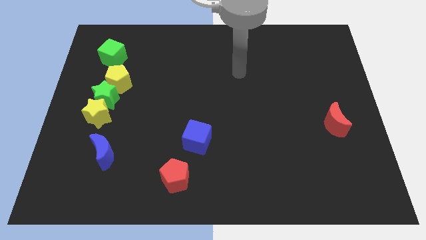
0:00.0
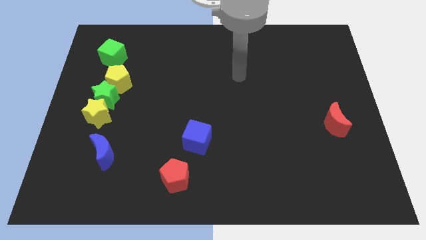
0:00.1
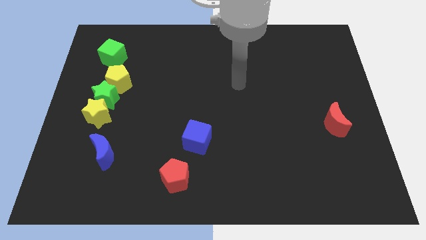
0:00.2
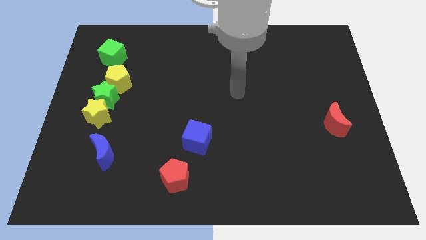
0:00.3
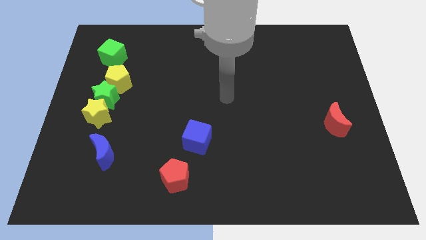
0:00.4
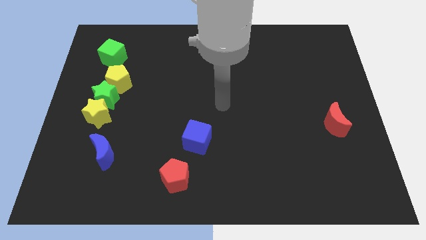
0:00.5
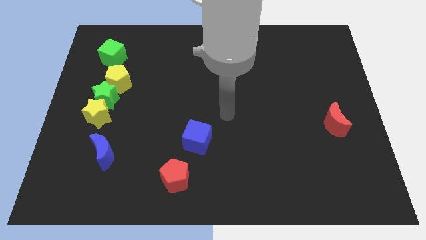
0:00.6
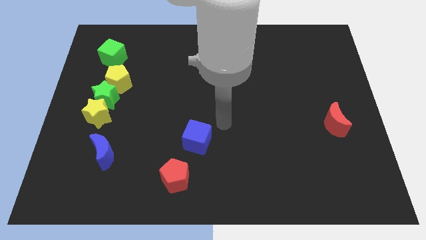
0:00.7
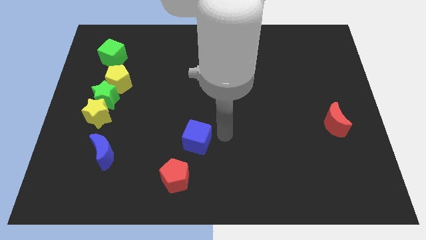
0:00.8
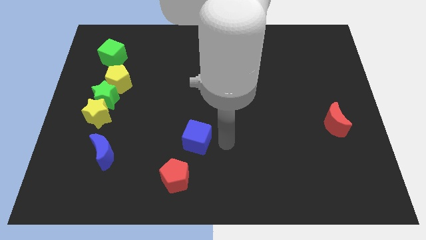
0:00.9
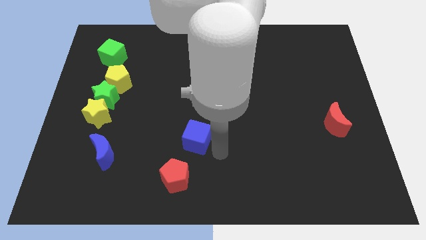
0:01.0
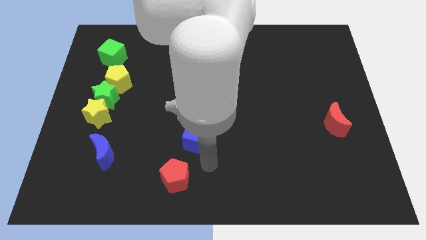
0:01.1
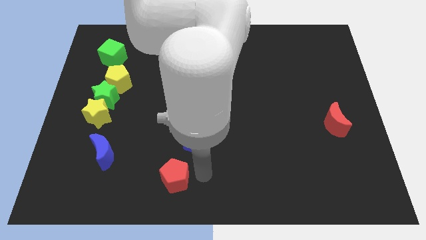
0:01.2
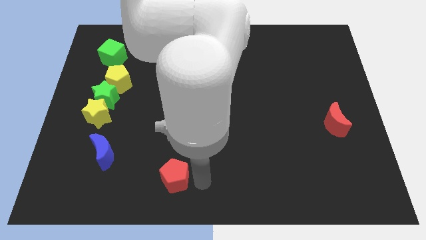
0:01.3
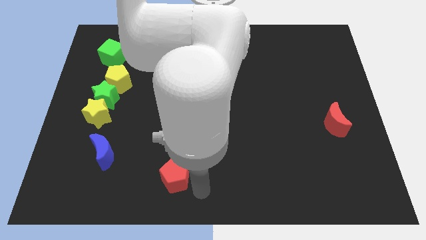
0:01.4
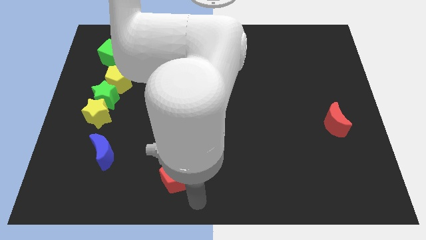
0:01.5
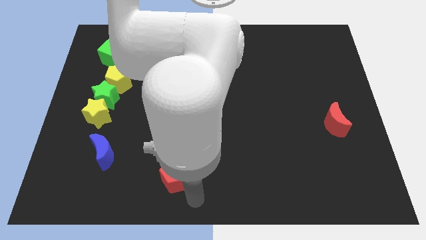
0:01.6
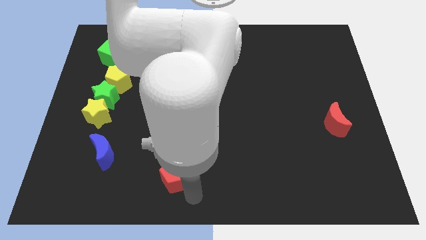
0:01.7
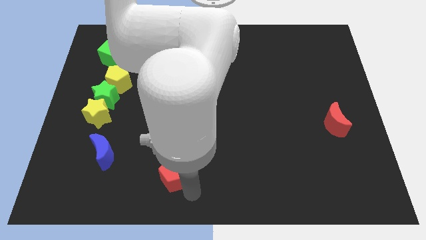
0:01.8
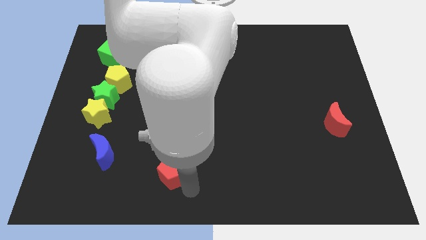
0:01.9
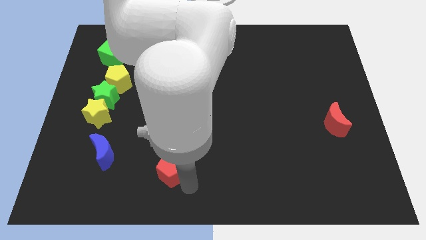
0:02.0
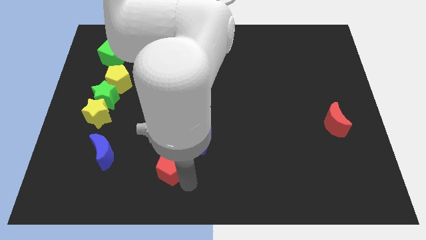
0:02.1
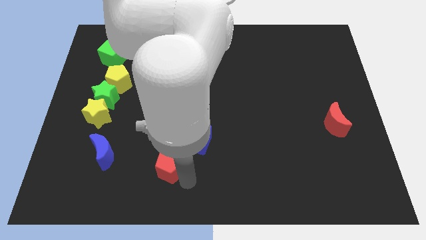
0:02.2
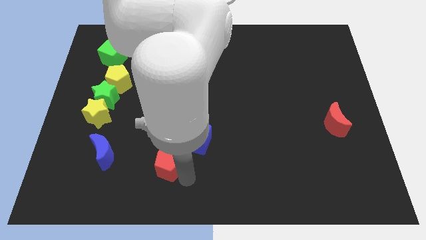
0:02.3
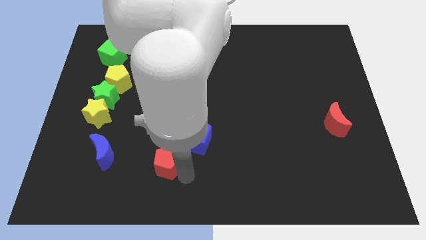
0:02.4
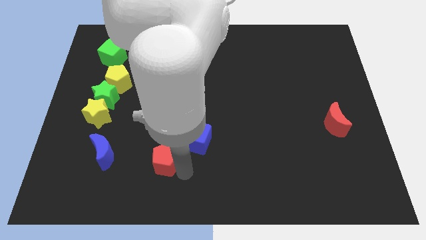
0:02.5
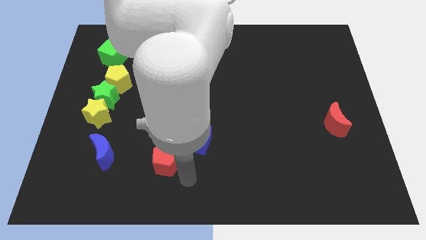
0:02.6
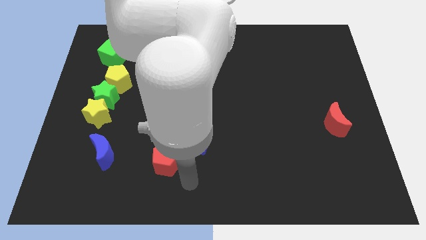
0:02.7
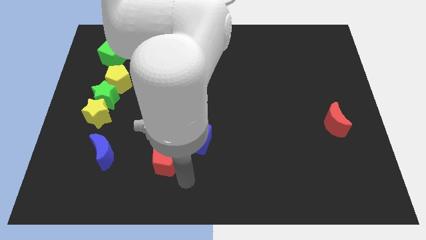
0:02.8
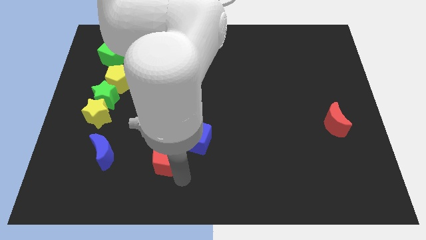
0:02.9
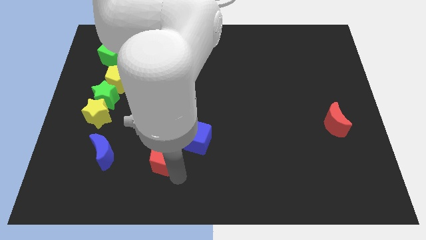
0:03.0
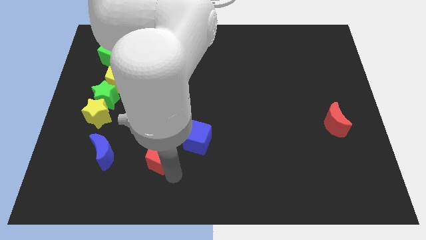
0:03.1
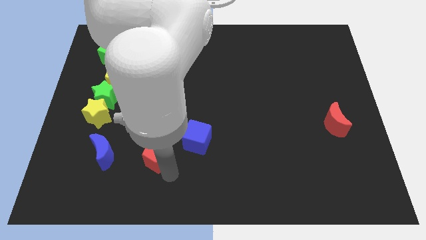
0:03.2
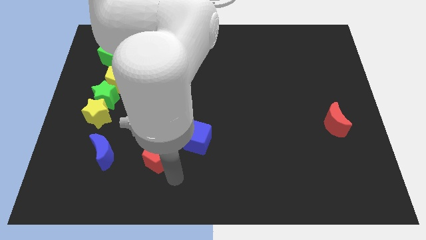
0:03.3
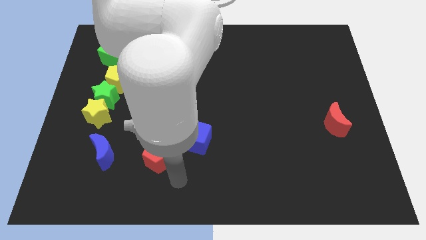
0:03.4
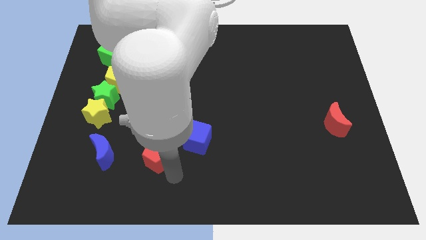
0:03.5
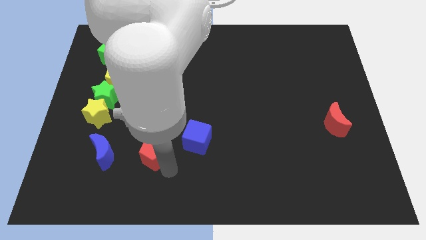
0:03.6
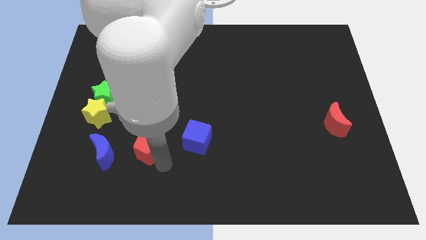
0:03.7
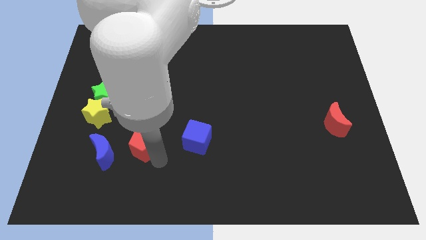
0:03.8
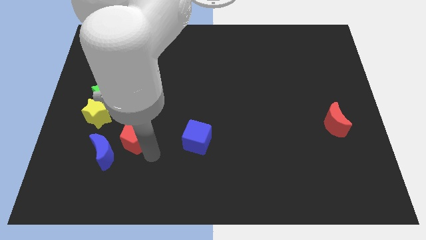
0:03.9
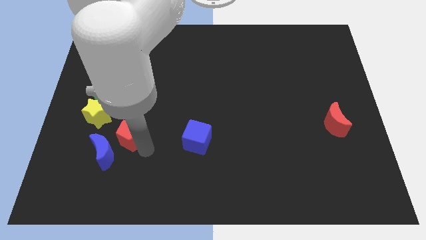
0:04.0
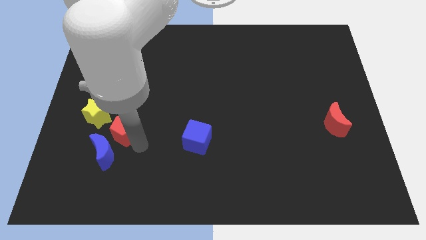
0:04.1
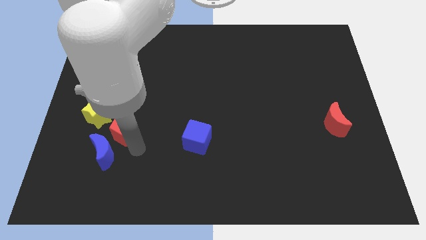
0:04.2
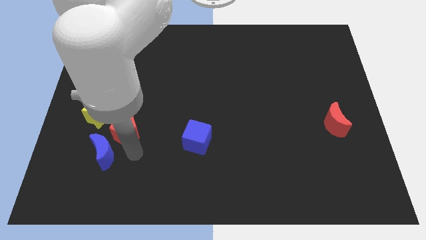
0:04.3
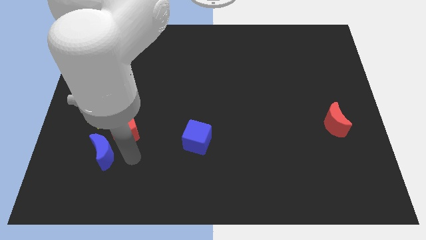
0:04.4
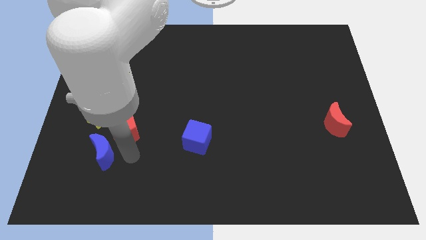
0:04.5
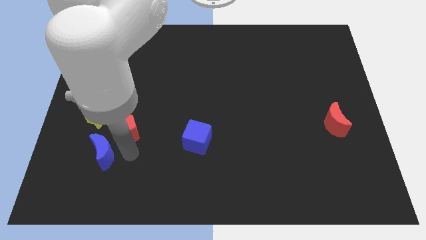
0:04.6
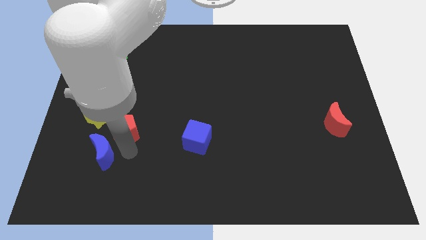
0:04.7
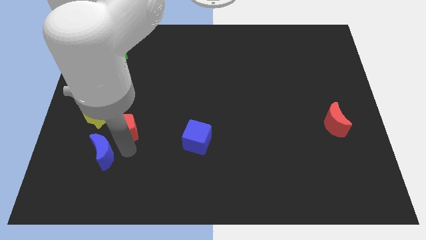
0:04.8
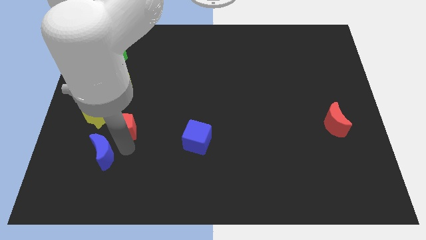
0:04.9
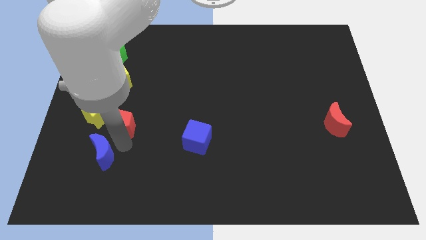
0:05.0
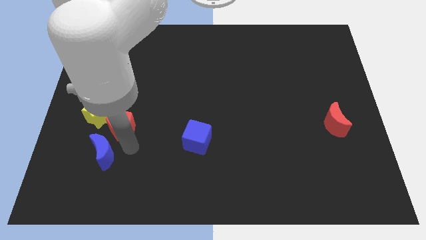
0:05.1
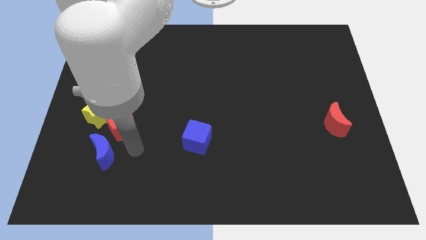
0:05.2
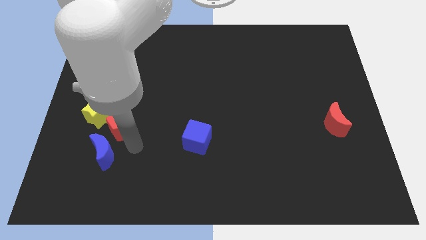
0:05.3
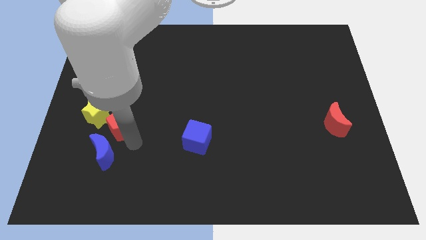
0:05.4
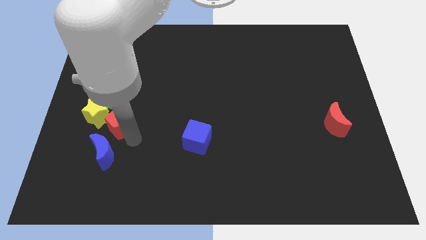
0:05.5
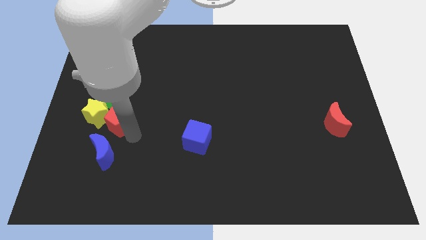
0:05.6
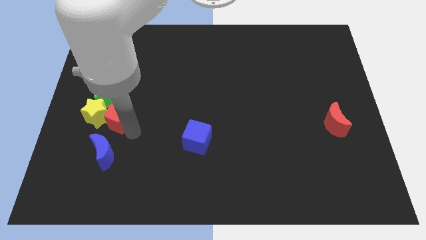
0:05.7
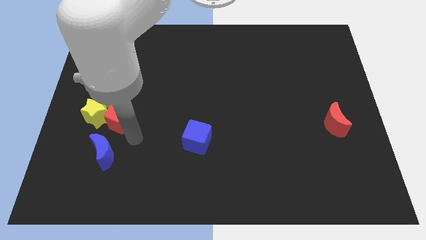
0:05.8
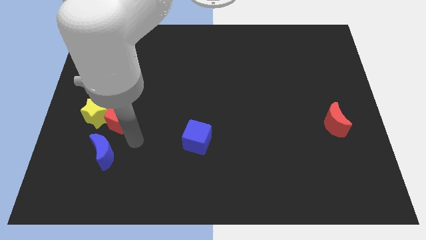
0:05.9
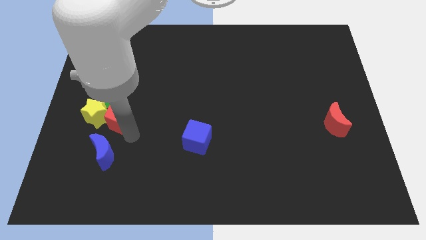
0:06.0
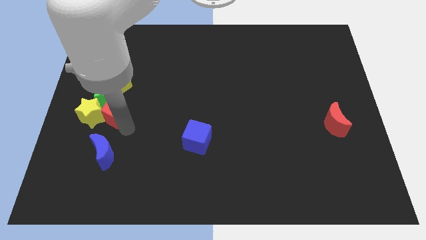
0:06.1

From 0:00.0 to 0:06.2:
push the red pentagon to the green star
